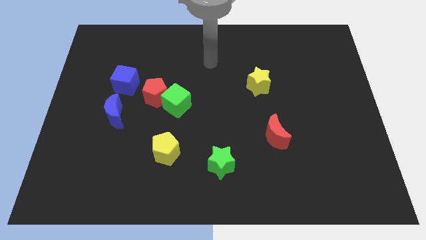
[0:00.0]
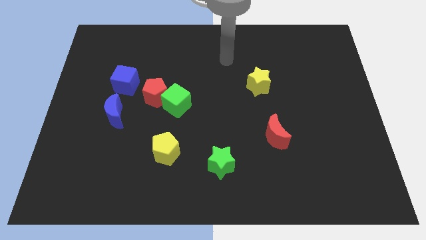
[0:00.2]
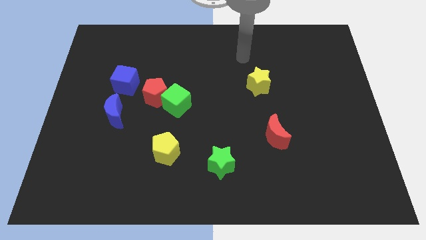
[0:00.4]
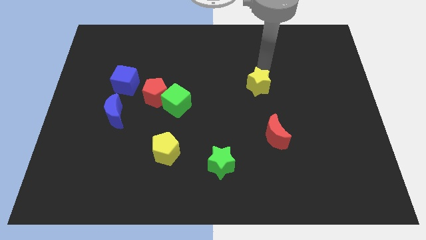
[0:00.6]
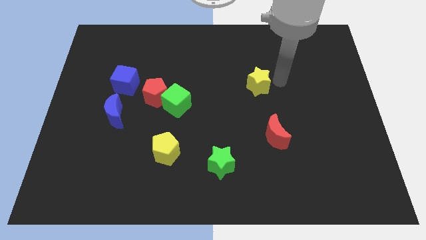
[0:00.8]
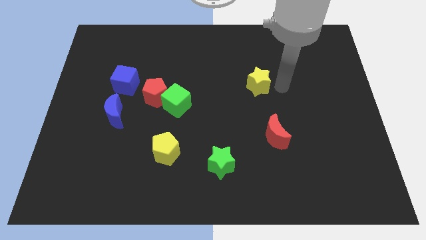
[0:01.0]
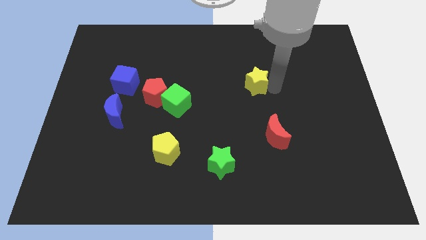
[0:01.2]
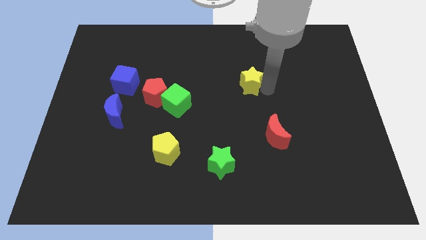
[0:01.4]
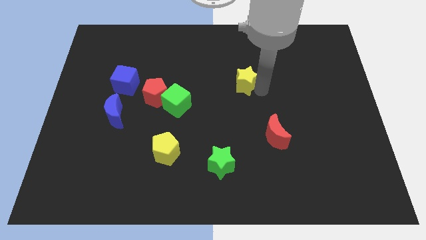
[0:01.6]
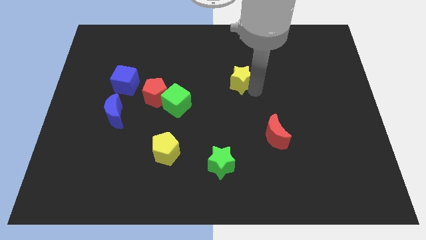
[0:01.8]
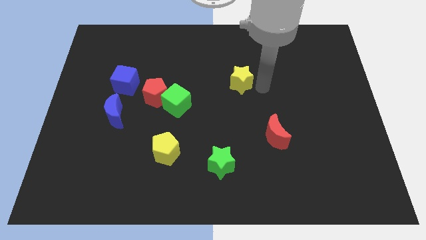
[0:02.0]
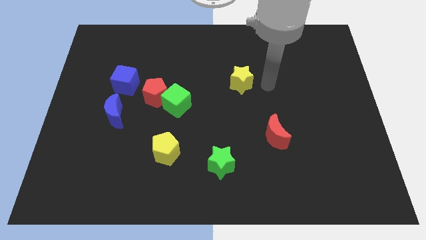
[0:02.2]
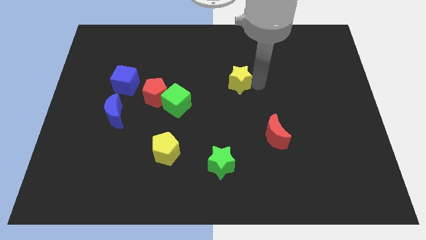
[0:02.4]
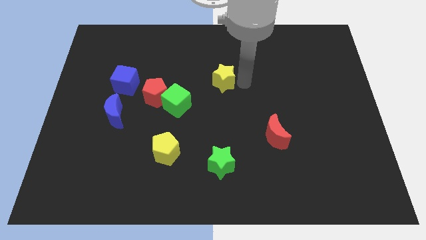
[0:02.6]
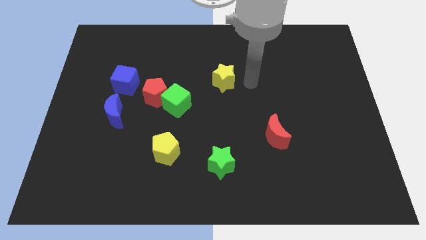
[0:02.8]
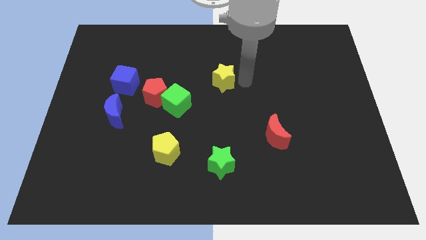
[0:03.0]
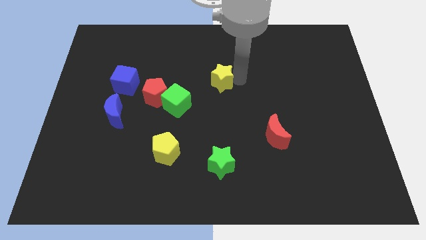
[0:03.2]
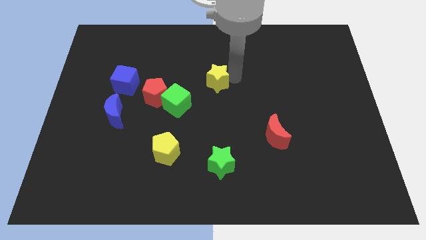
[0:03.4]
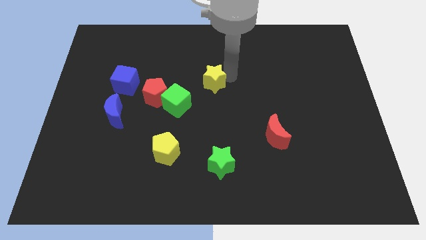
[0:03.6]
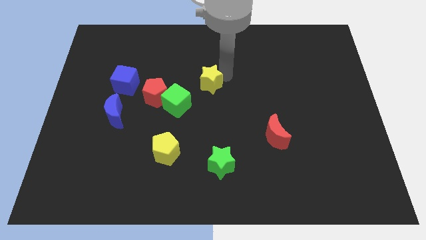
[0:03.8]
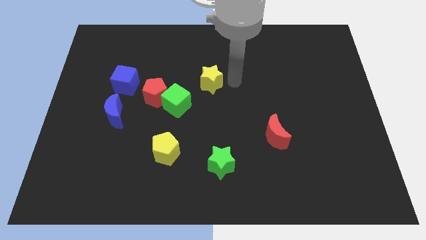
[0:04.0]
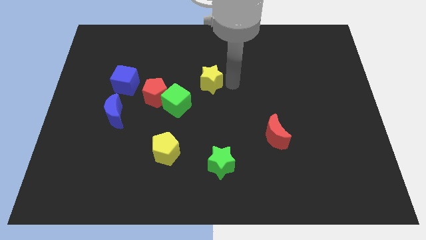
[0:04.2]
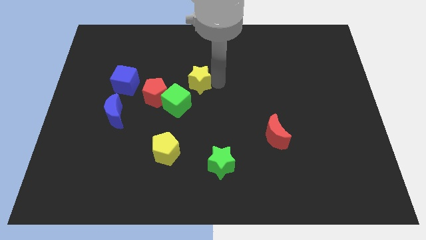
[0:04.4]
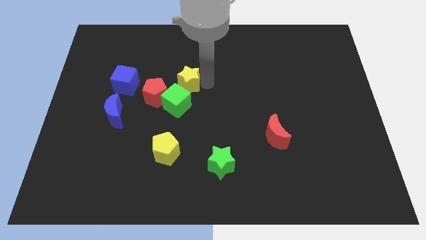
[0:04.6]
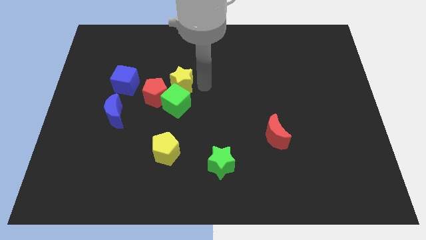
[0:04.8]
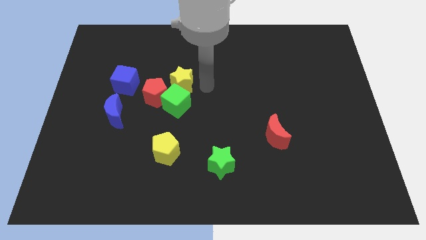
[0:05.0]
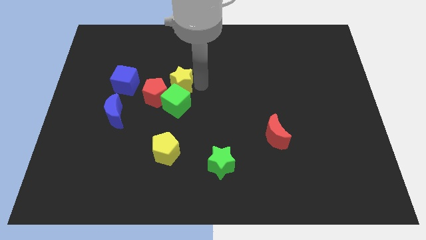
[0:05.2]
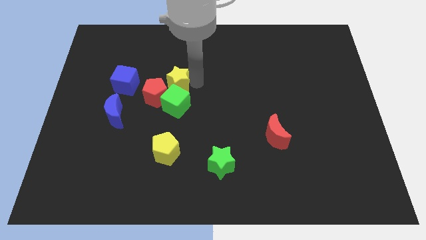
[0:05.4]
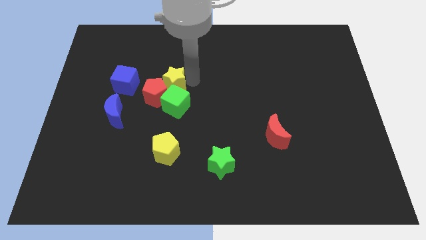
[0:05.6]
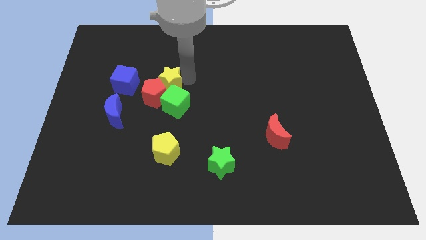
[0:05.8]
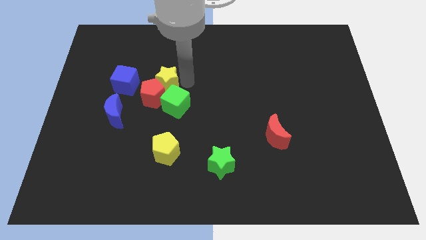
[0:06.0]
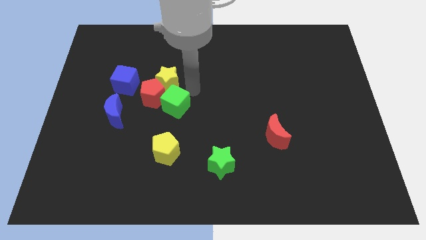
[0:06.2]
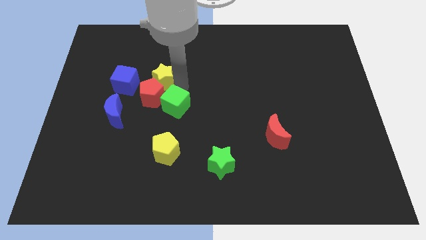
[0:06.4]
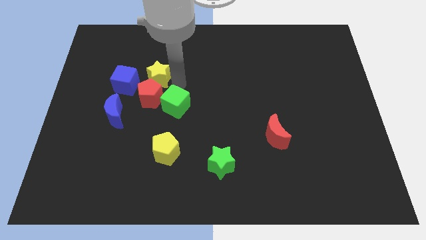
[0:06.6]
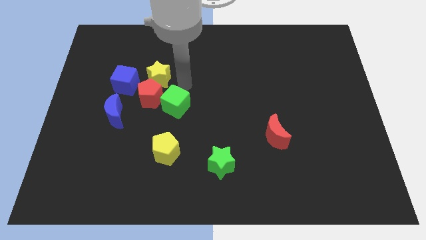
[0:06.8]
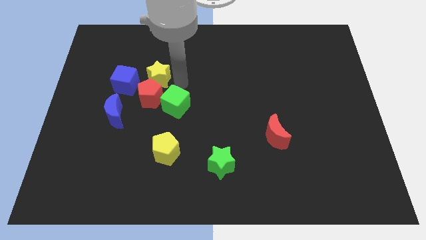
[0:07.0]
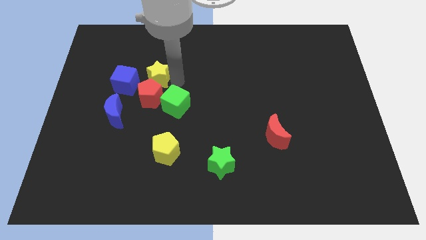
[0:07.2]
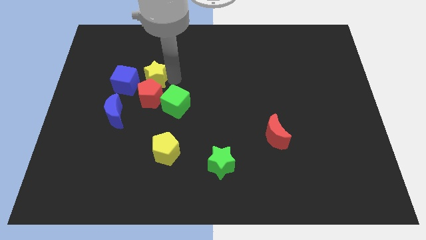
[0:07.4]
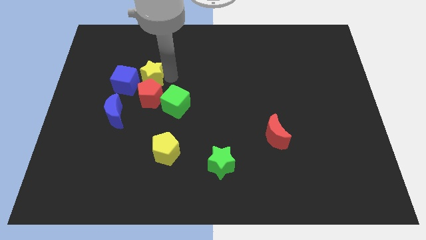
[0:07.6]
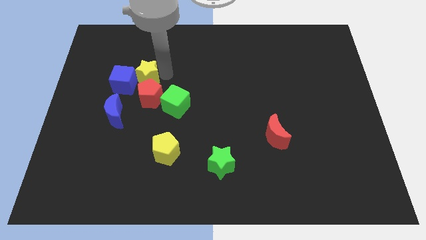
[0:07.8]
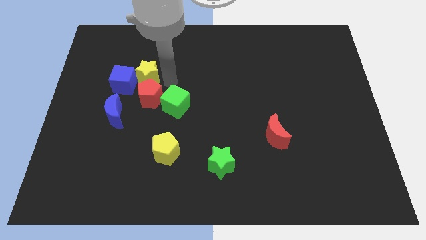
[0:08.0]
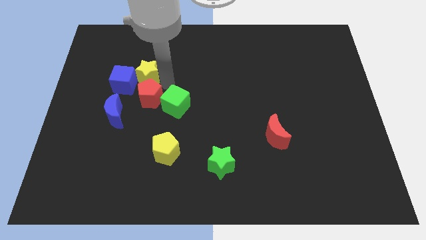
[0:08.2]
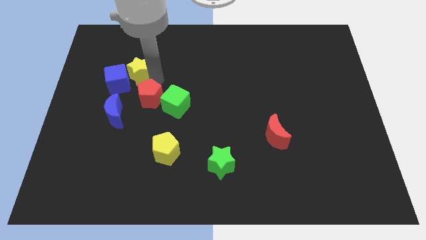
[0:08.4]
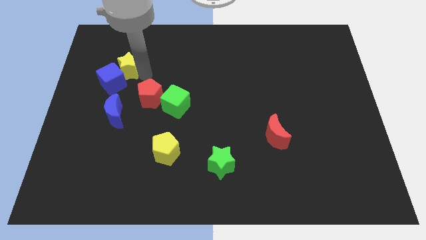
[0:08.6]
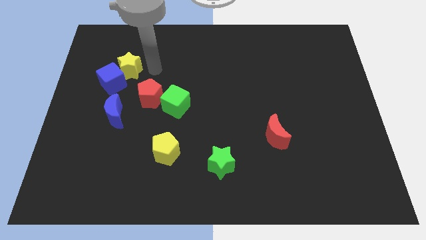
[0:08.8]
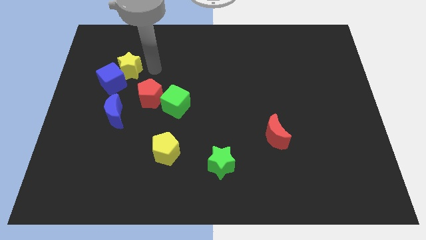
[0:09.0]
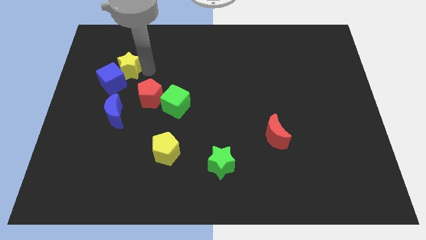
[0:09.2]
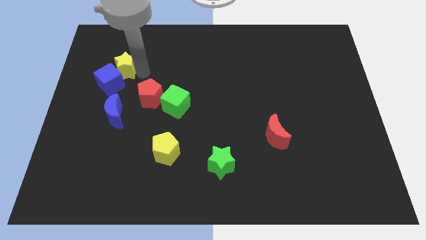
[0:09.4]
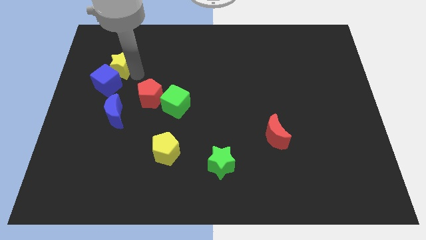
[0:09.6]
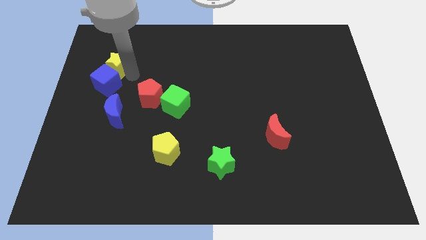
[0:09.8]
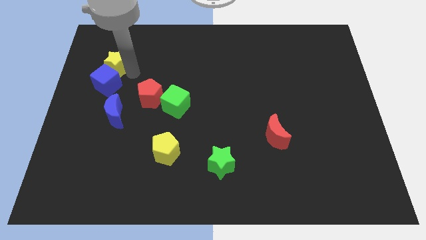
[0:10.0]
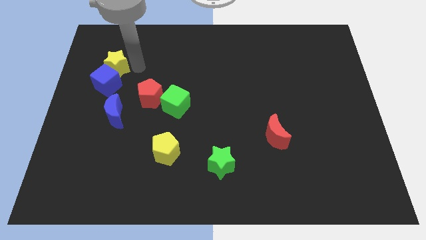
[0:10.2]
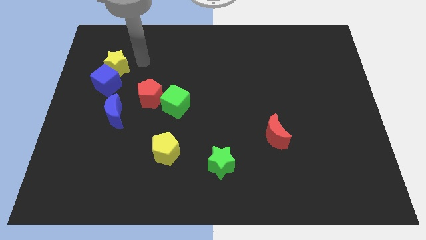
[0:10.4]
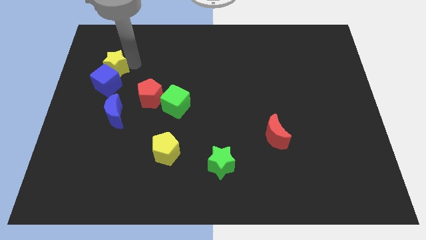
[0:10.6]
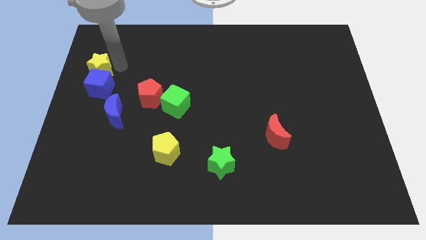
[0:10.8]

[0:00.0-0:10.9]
push the yellow star to the left side of the board

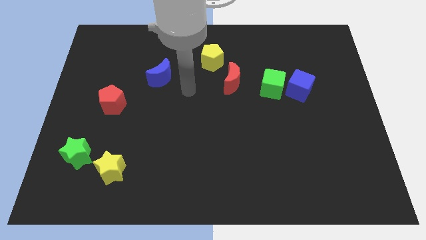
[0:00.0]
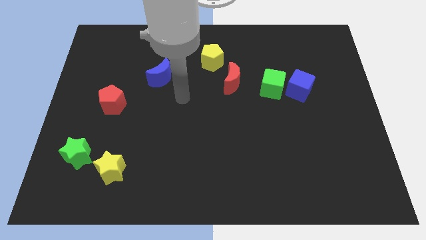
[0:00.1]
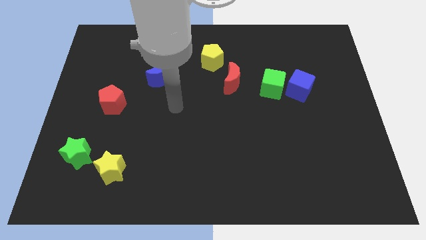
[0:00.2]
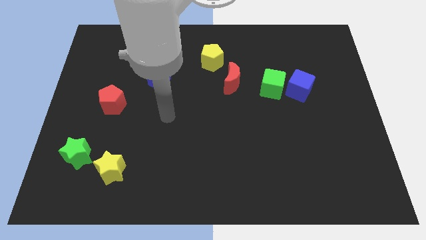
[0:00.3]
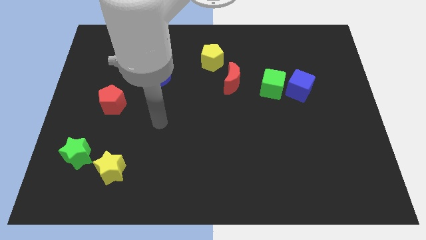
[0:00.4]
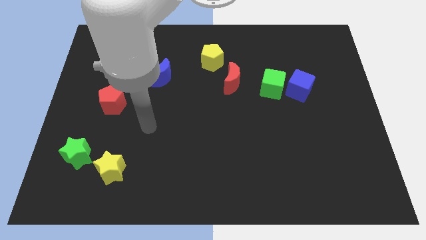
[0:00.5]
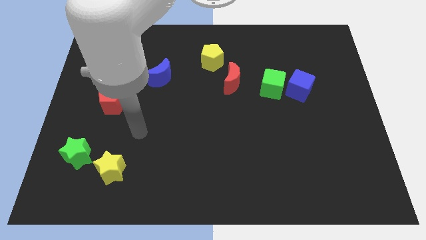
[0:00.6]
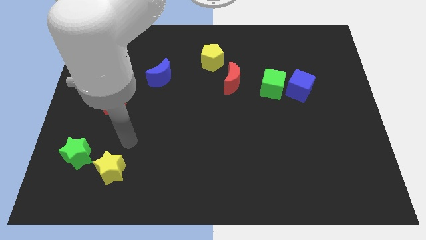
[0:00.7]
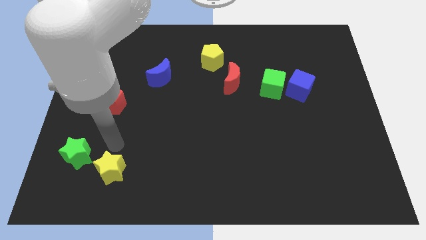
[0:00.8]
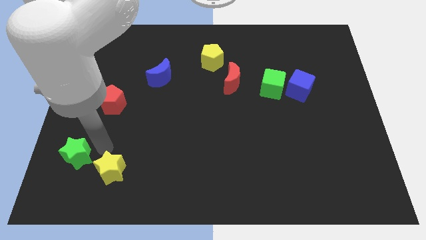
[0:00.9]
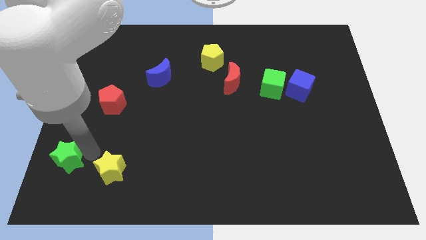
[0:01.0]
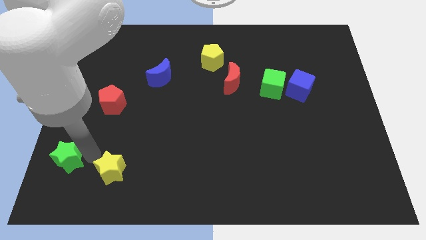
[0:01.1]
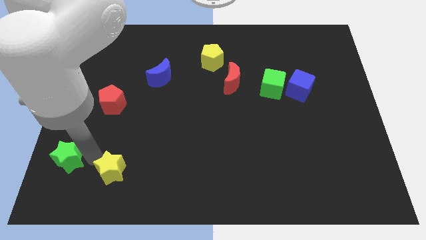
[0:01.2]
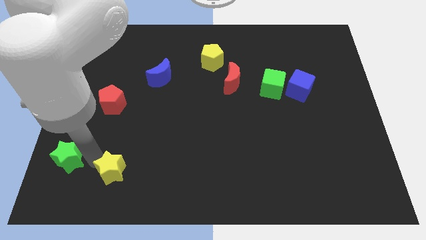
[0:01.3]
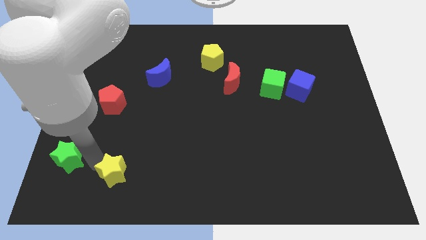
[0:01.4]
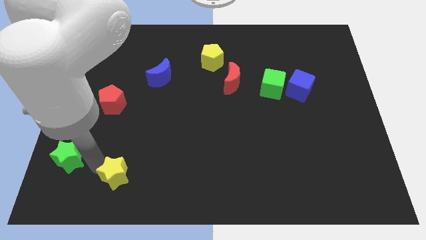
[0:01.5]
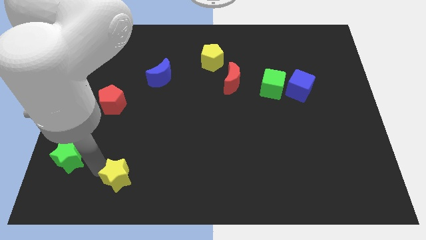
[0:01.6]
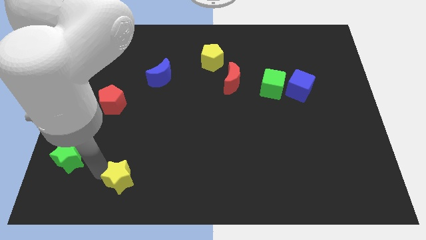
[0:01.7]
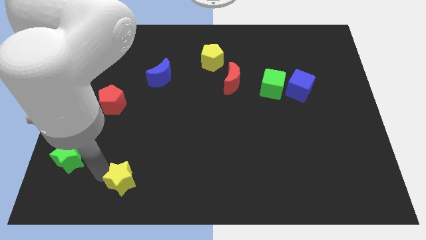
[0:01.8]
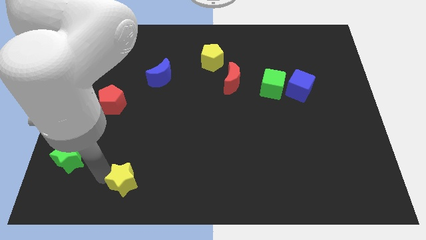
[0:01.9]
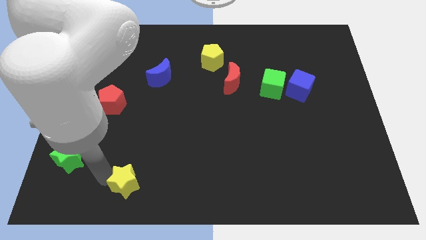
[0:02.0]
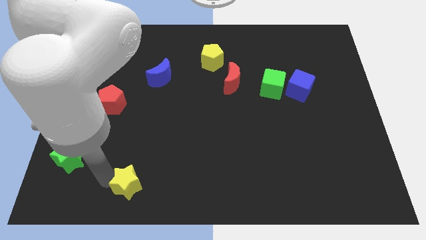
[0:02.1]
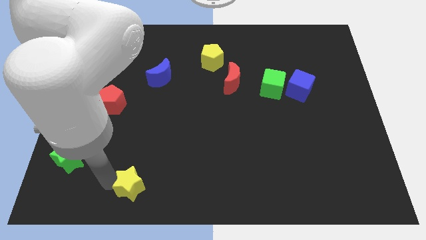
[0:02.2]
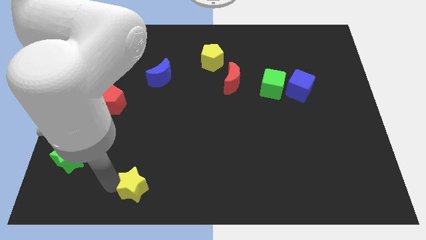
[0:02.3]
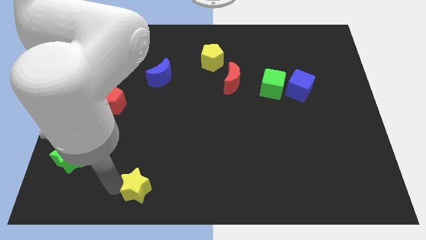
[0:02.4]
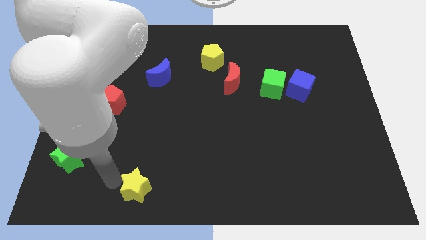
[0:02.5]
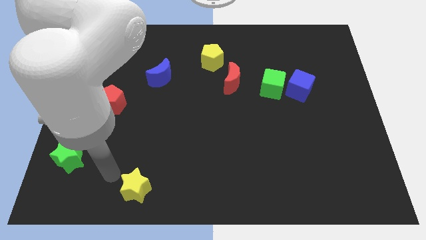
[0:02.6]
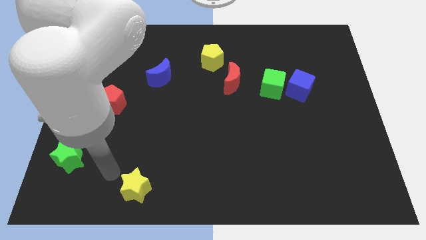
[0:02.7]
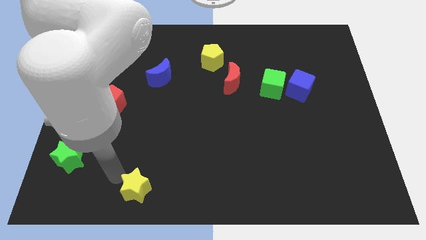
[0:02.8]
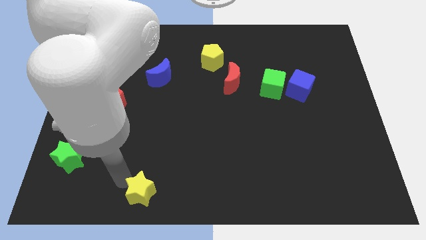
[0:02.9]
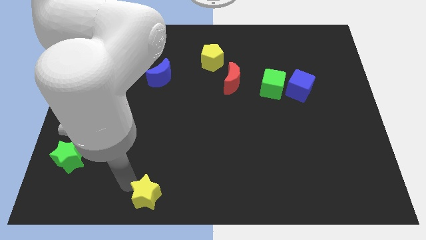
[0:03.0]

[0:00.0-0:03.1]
push the yellow star to the bottom
